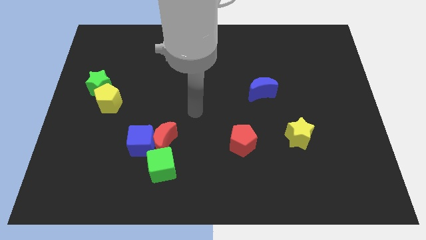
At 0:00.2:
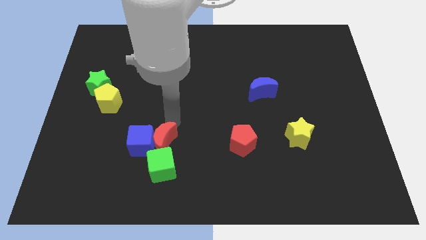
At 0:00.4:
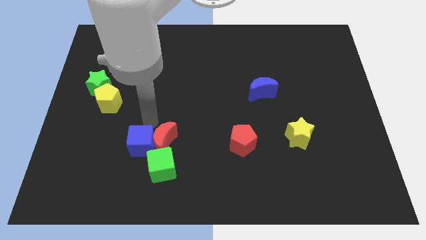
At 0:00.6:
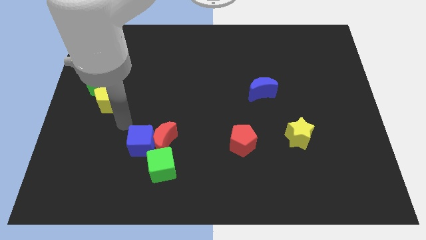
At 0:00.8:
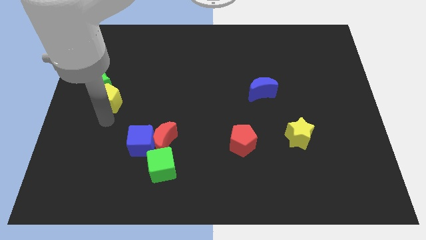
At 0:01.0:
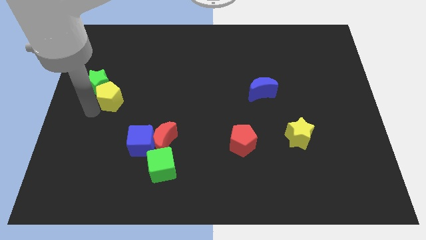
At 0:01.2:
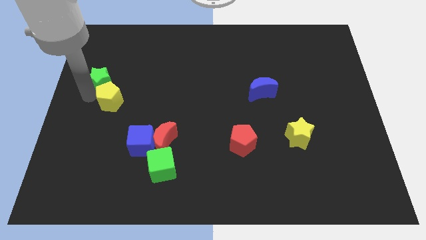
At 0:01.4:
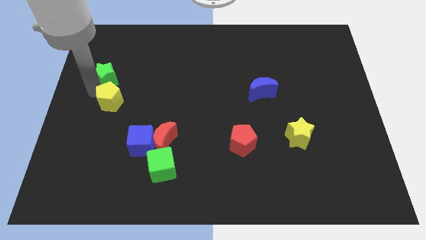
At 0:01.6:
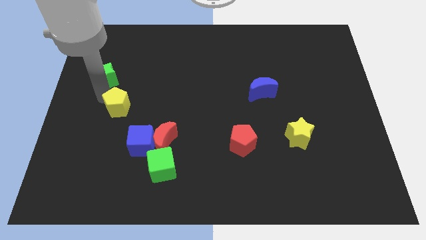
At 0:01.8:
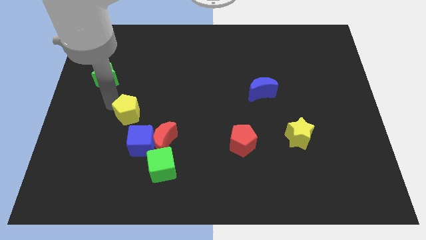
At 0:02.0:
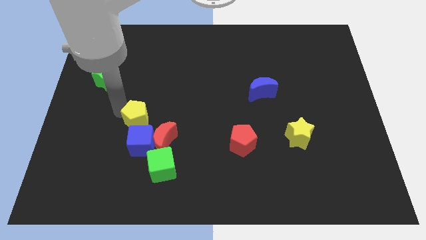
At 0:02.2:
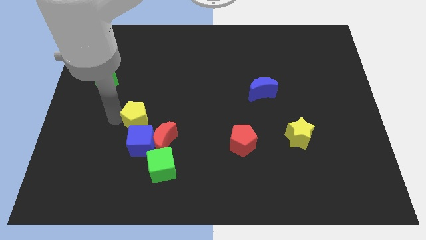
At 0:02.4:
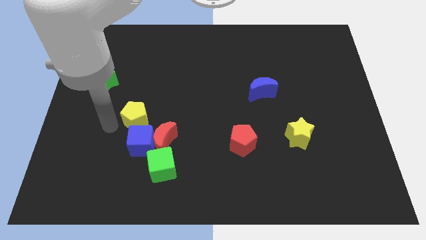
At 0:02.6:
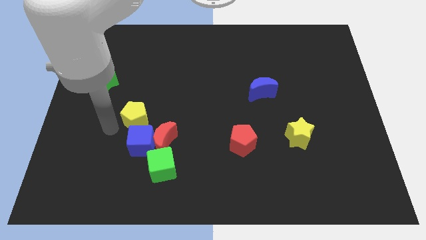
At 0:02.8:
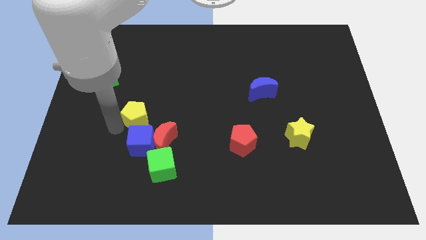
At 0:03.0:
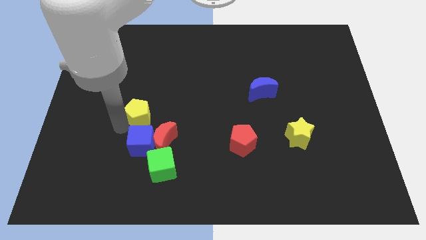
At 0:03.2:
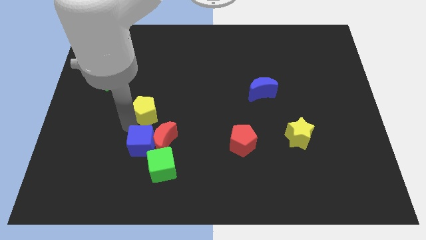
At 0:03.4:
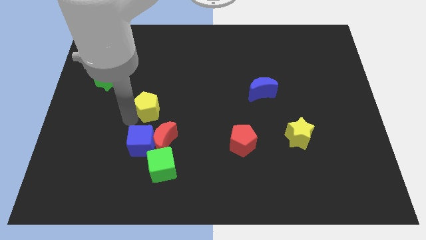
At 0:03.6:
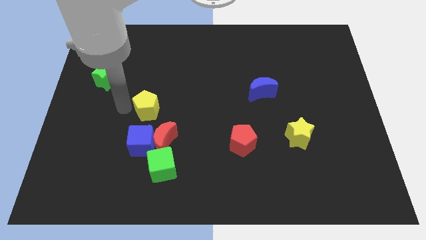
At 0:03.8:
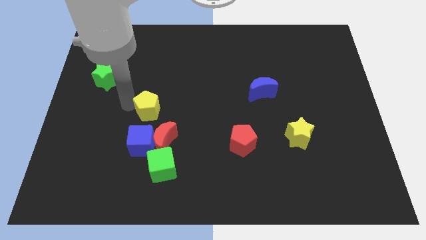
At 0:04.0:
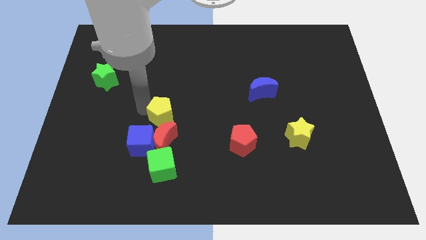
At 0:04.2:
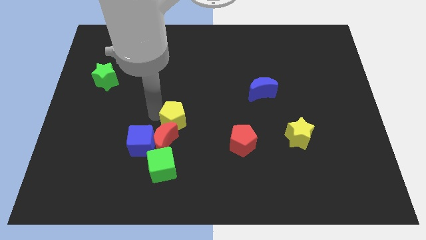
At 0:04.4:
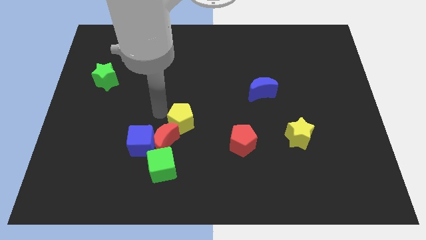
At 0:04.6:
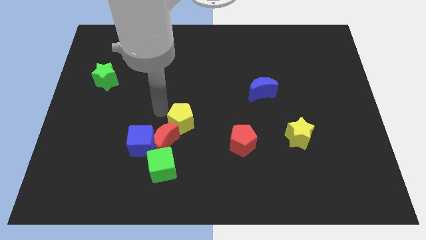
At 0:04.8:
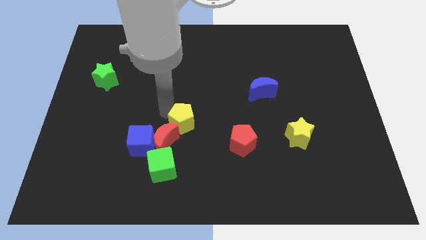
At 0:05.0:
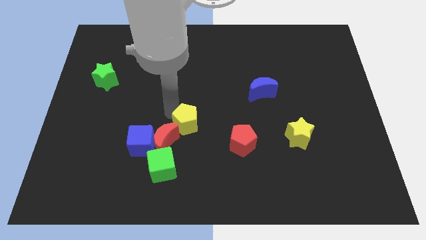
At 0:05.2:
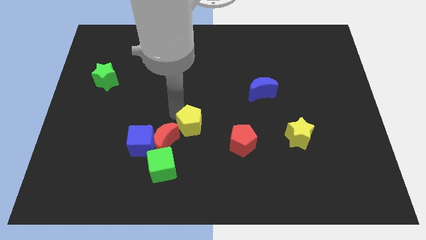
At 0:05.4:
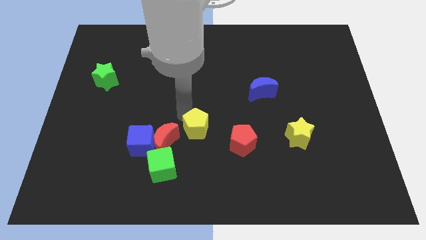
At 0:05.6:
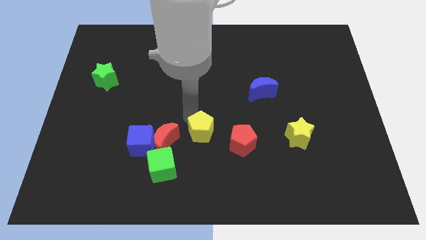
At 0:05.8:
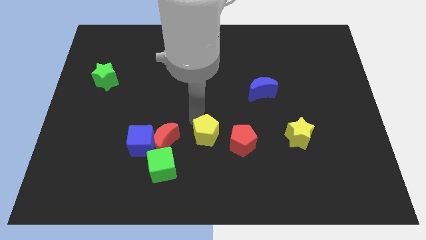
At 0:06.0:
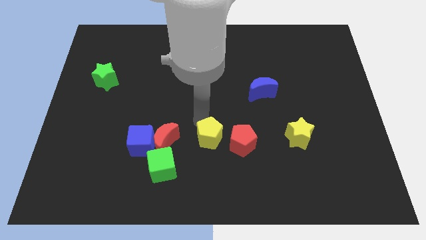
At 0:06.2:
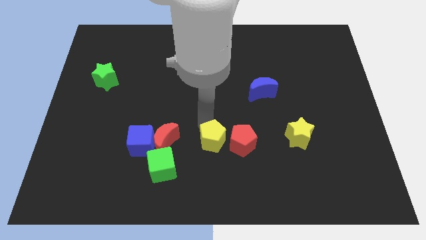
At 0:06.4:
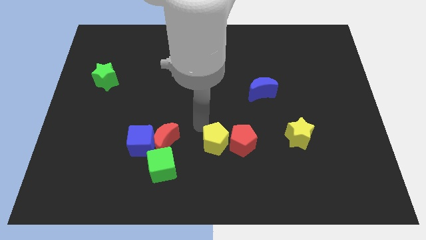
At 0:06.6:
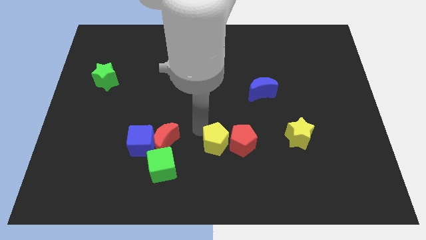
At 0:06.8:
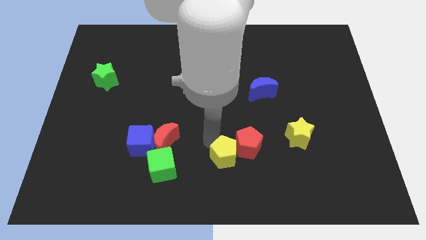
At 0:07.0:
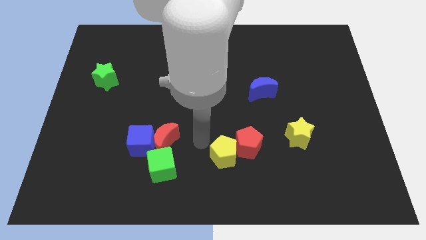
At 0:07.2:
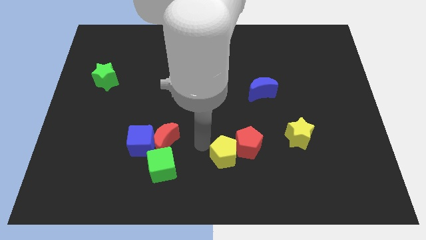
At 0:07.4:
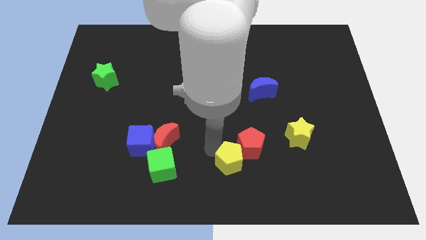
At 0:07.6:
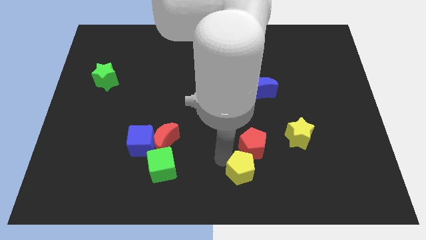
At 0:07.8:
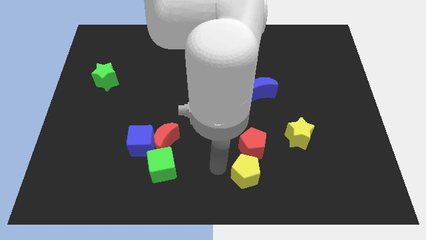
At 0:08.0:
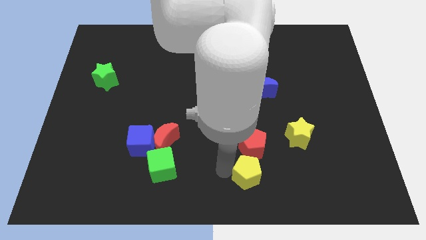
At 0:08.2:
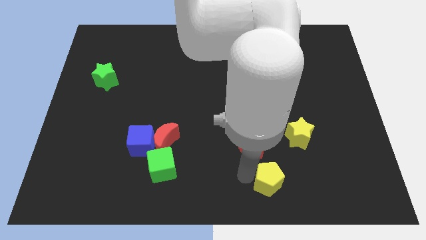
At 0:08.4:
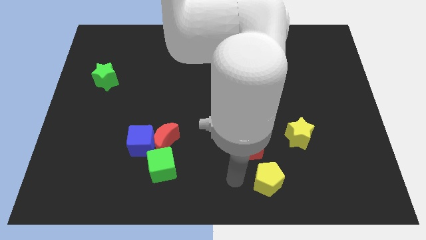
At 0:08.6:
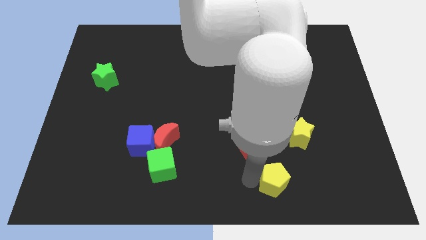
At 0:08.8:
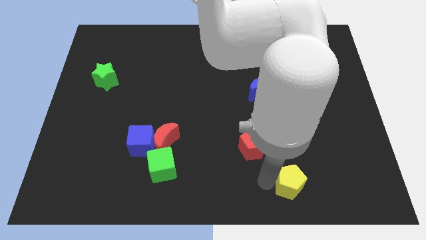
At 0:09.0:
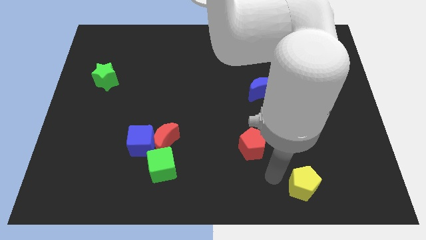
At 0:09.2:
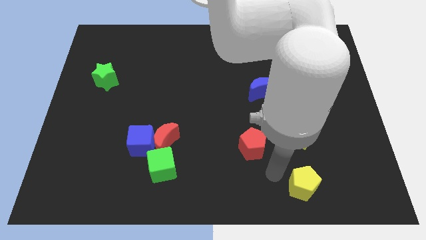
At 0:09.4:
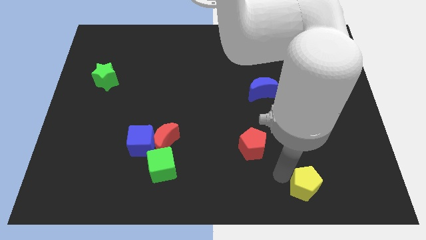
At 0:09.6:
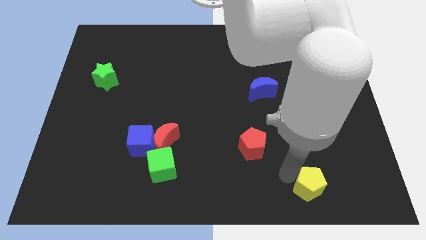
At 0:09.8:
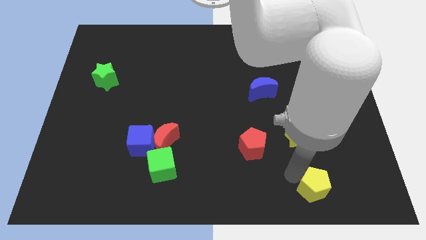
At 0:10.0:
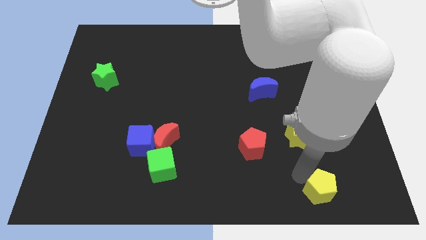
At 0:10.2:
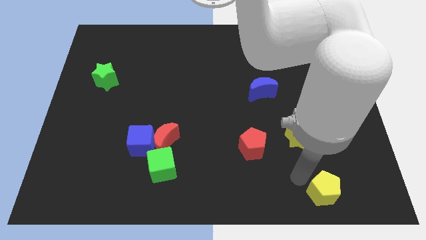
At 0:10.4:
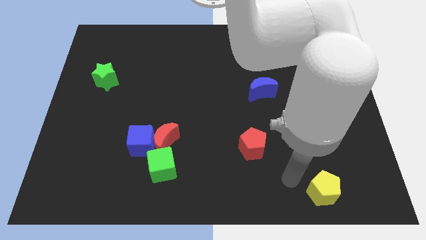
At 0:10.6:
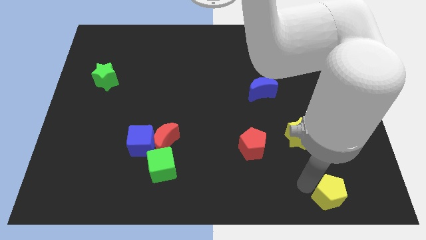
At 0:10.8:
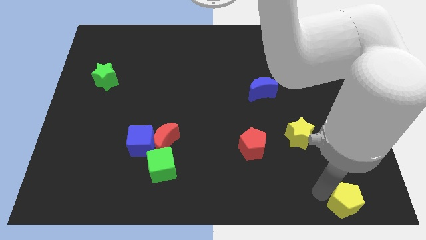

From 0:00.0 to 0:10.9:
push the yellow pentagon to the bottom right

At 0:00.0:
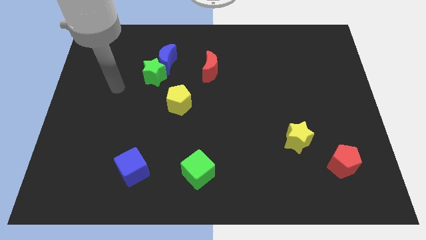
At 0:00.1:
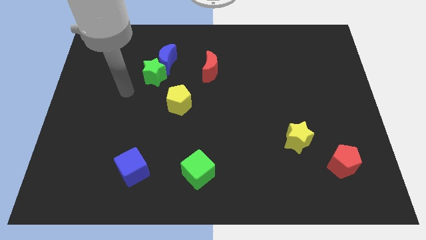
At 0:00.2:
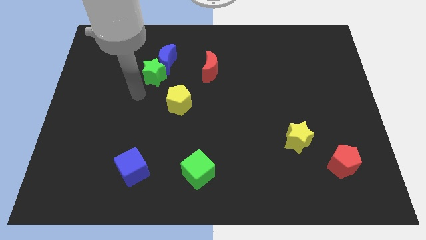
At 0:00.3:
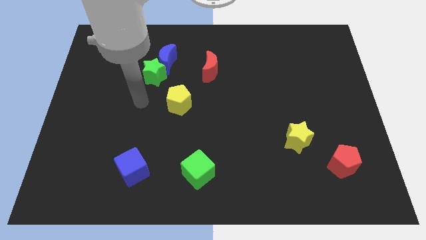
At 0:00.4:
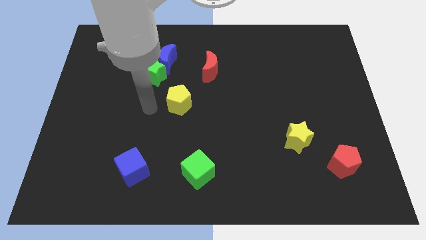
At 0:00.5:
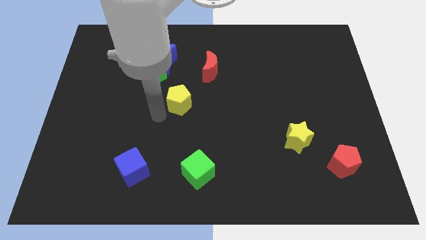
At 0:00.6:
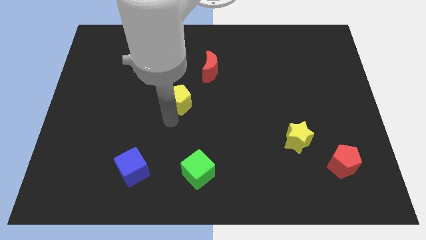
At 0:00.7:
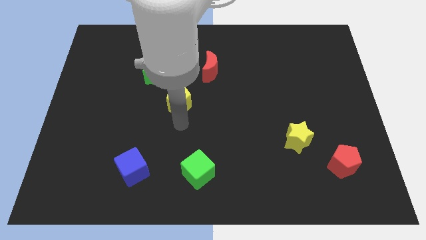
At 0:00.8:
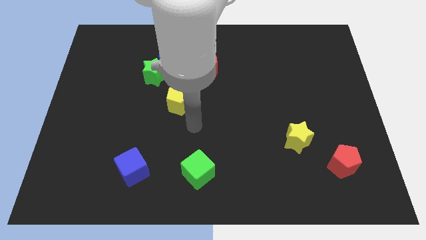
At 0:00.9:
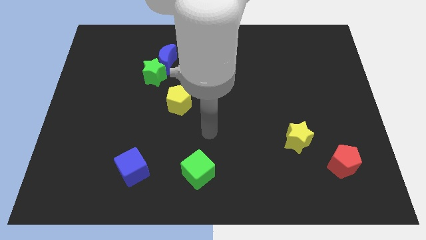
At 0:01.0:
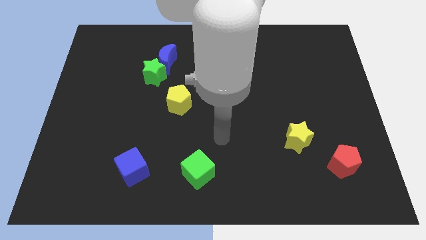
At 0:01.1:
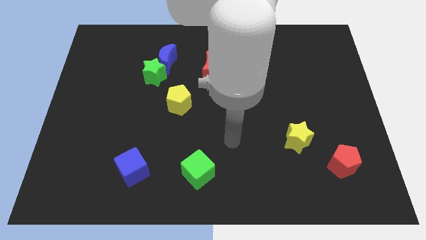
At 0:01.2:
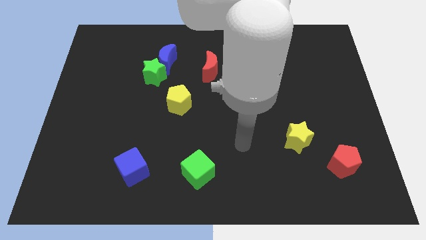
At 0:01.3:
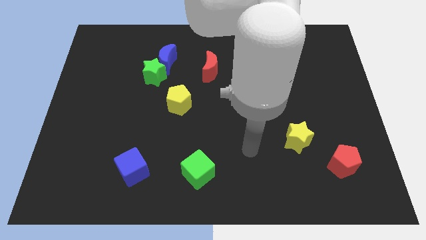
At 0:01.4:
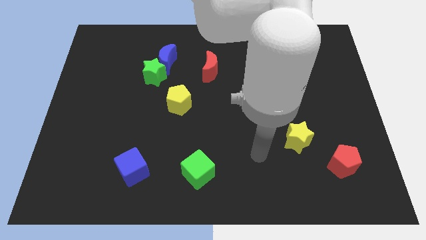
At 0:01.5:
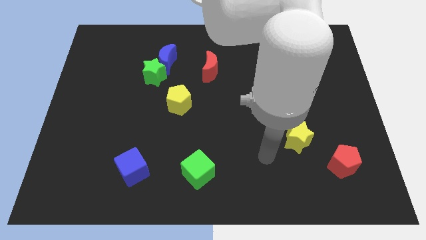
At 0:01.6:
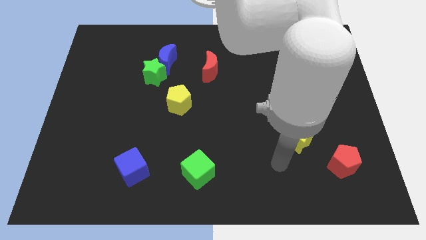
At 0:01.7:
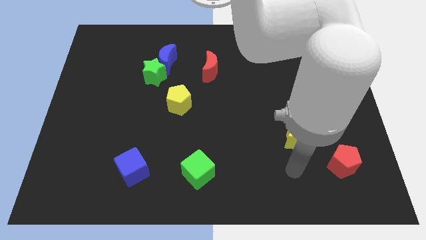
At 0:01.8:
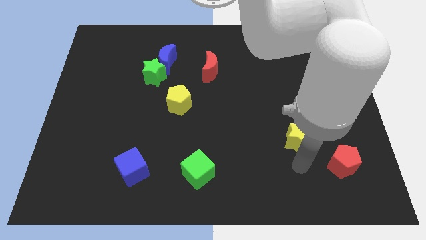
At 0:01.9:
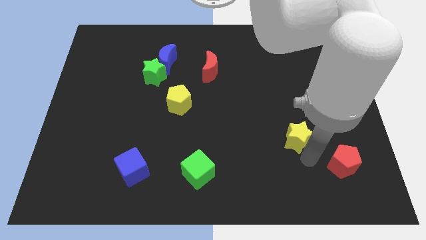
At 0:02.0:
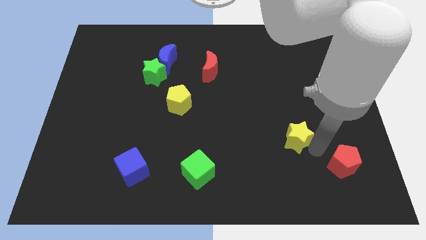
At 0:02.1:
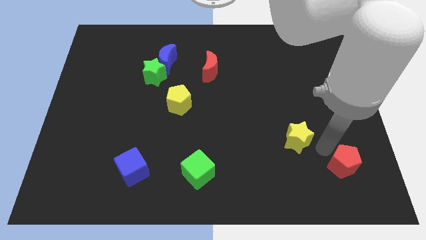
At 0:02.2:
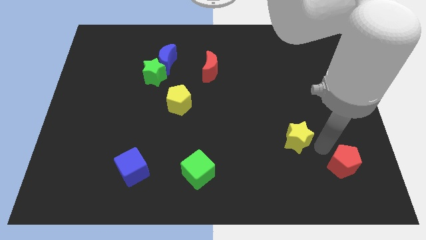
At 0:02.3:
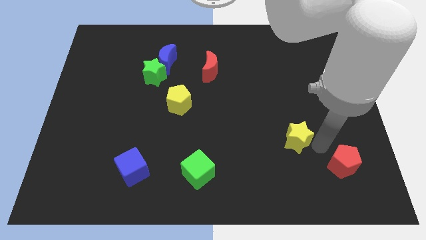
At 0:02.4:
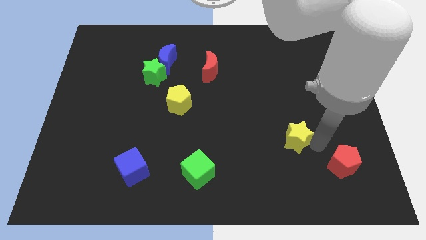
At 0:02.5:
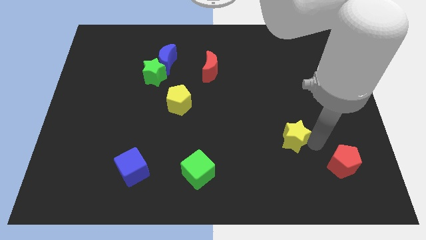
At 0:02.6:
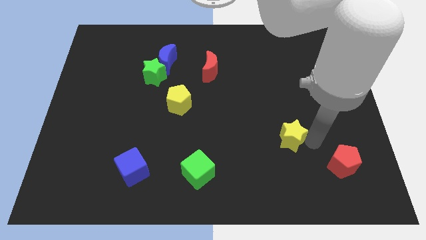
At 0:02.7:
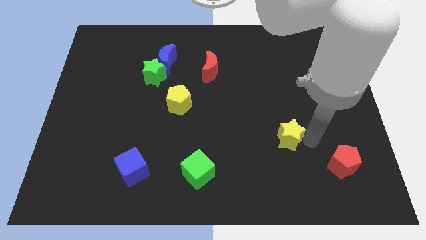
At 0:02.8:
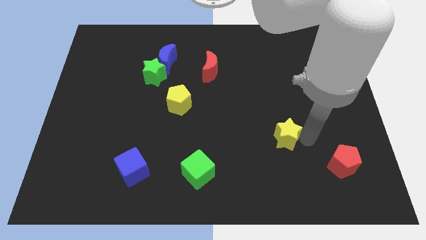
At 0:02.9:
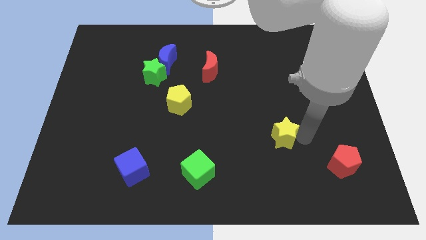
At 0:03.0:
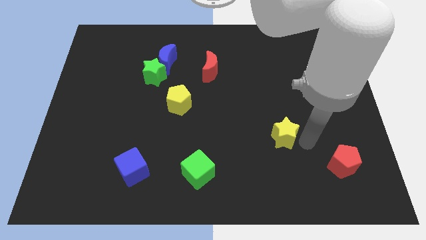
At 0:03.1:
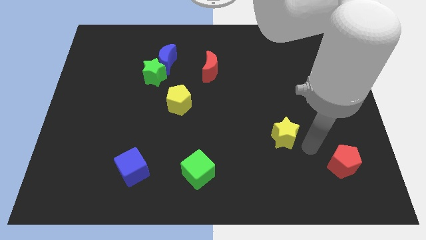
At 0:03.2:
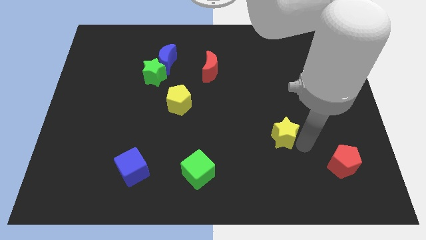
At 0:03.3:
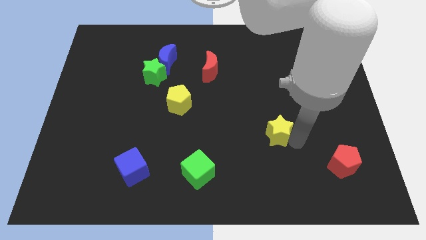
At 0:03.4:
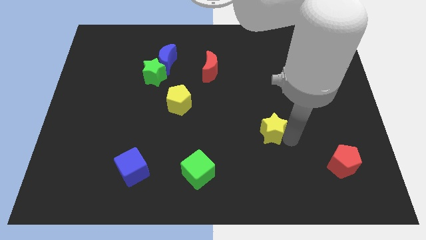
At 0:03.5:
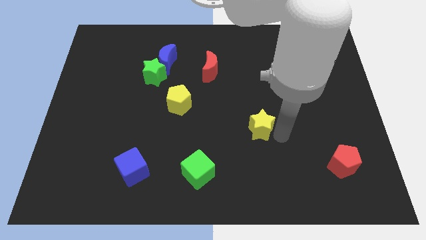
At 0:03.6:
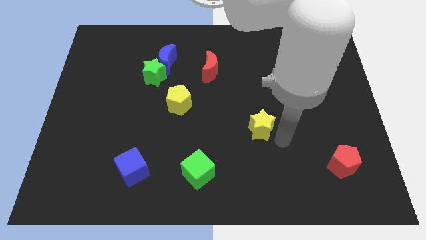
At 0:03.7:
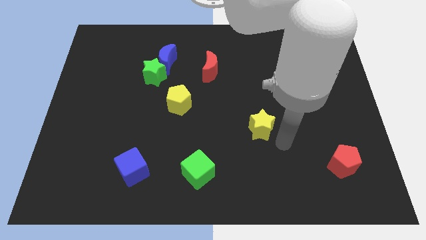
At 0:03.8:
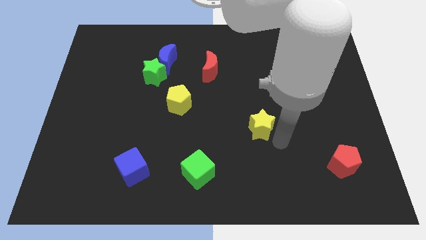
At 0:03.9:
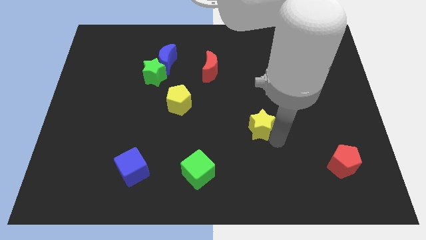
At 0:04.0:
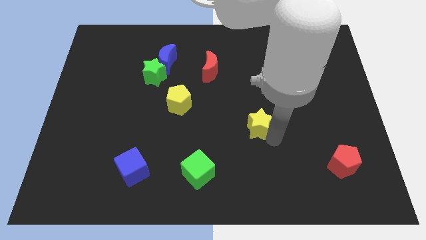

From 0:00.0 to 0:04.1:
move the yellow star to the center of the board
